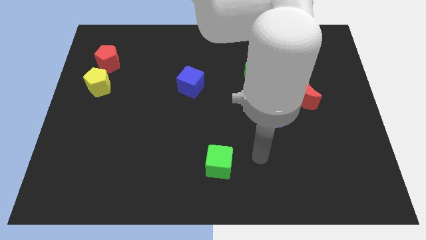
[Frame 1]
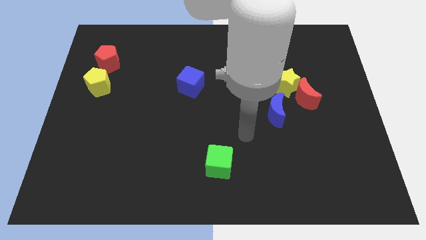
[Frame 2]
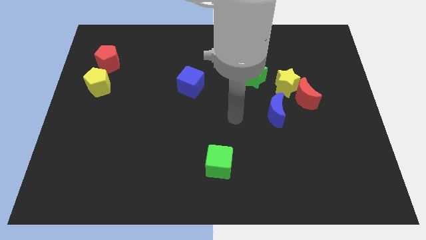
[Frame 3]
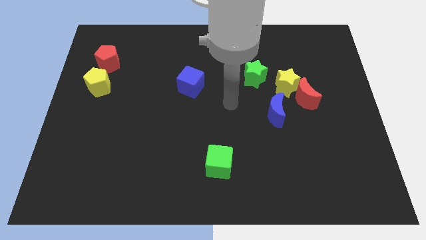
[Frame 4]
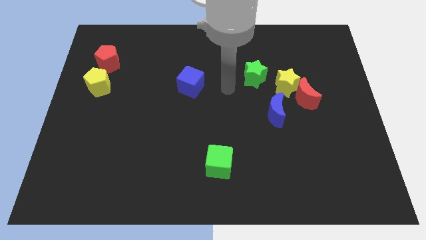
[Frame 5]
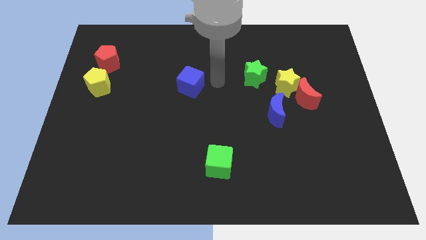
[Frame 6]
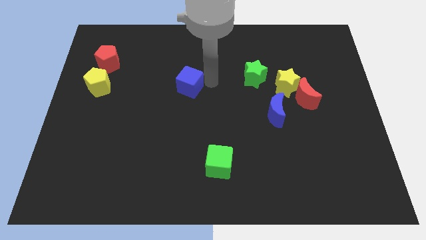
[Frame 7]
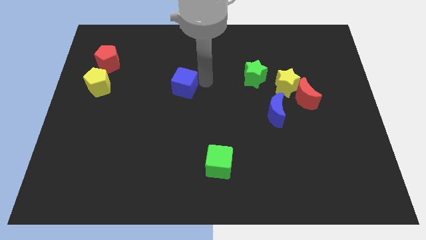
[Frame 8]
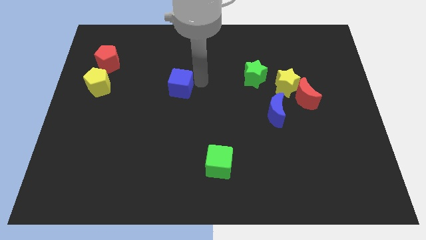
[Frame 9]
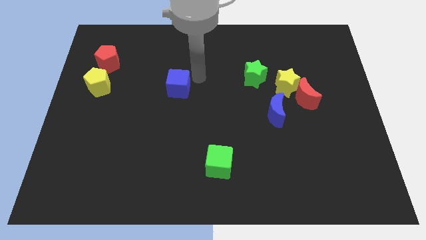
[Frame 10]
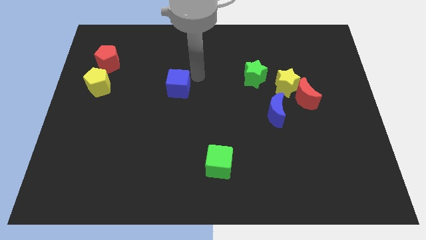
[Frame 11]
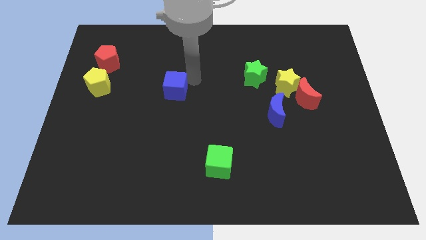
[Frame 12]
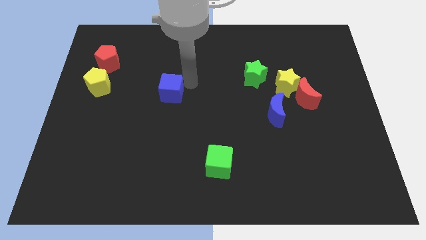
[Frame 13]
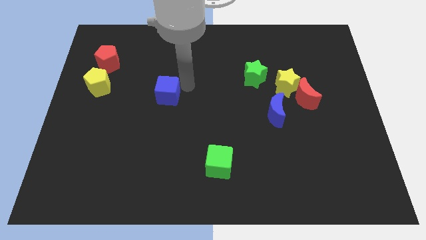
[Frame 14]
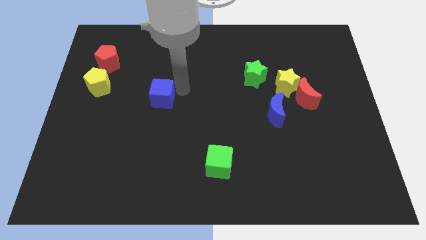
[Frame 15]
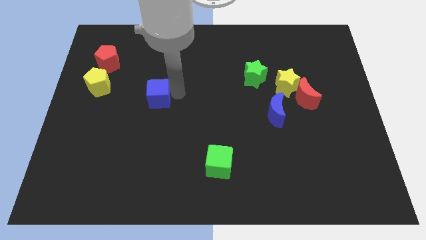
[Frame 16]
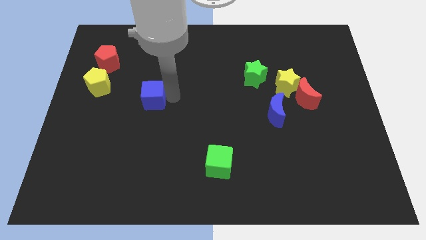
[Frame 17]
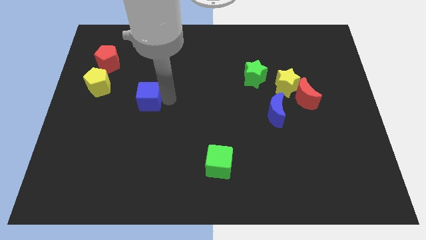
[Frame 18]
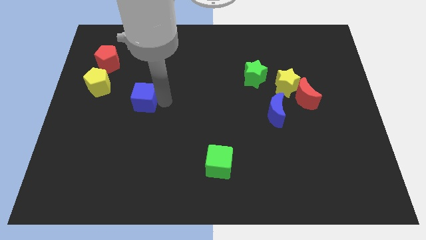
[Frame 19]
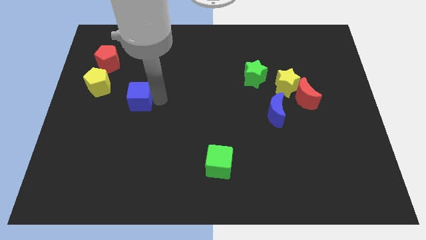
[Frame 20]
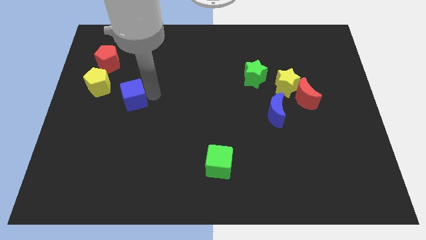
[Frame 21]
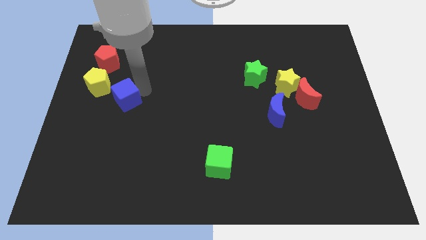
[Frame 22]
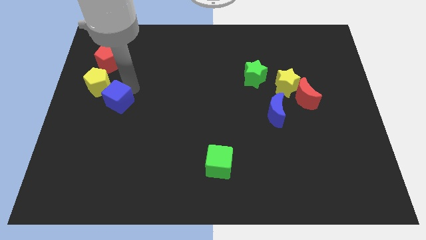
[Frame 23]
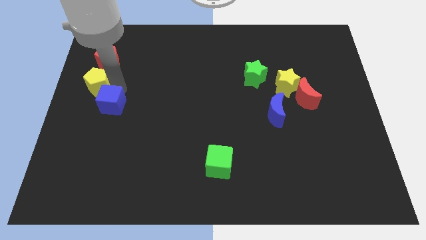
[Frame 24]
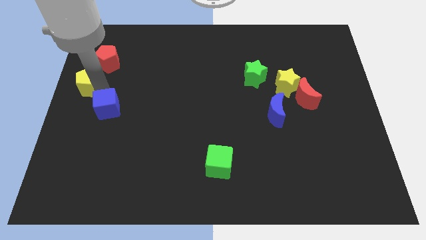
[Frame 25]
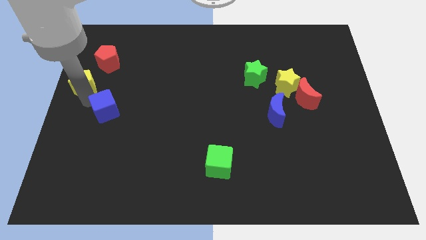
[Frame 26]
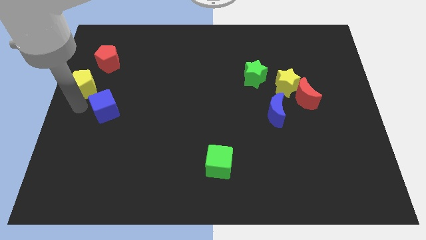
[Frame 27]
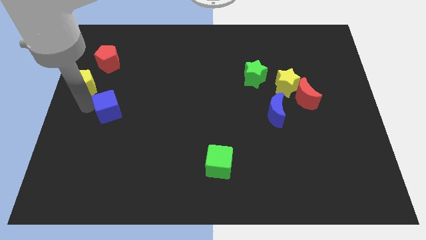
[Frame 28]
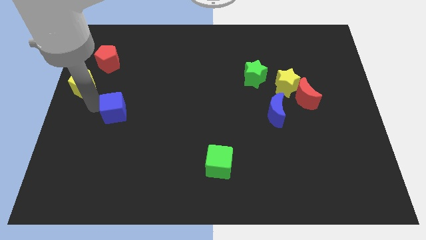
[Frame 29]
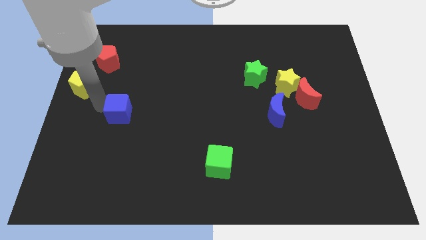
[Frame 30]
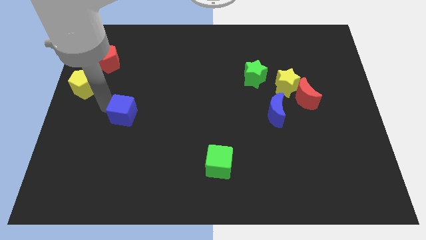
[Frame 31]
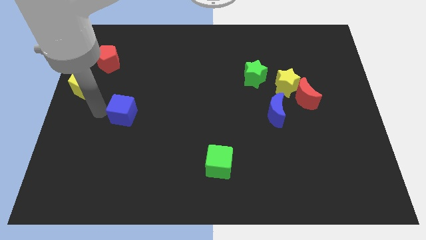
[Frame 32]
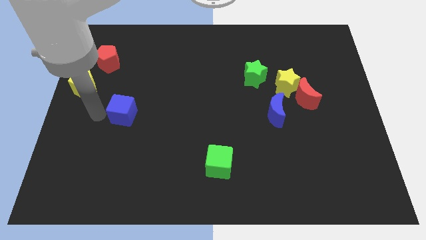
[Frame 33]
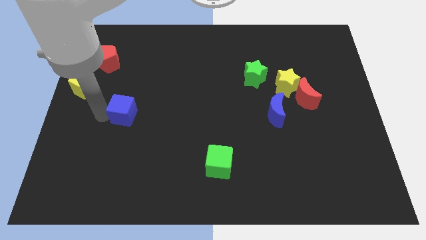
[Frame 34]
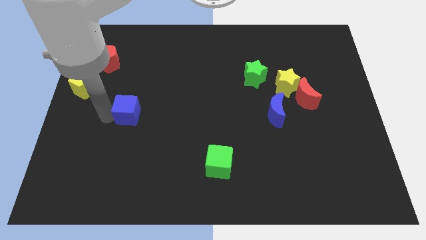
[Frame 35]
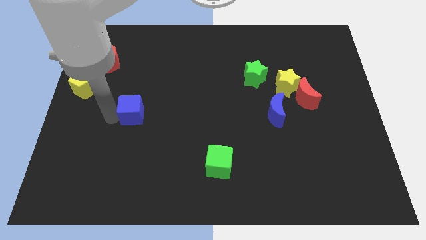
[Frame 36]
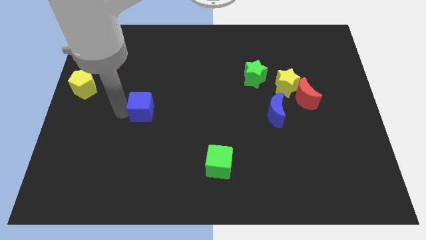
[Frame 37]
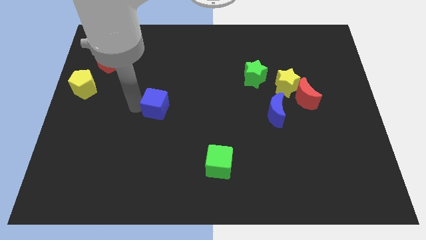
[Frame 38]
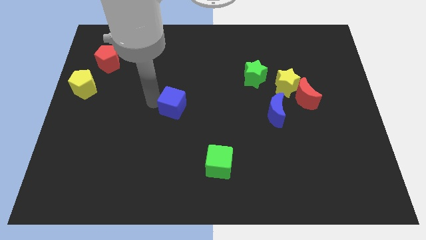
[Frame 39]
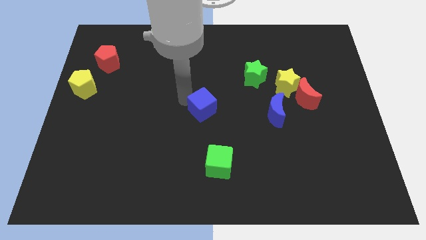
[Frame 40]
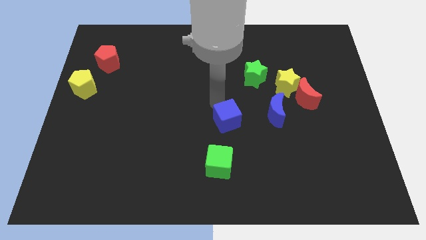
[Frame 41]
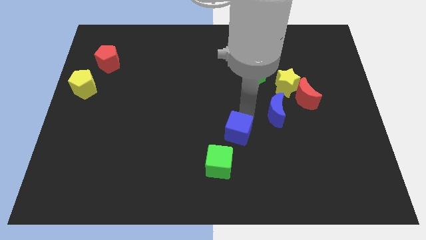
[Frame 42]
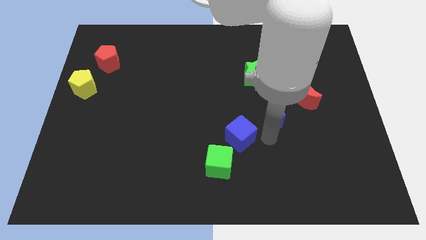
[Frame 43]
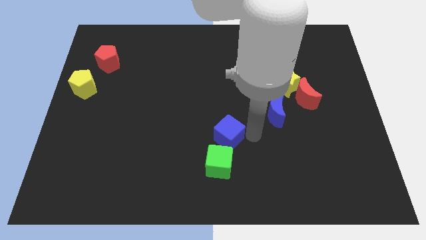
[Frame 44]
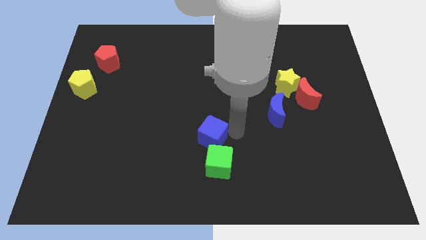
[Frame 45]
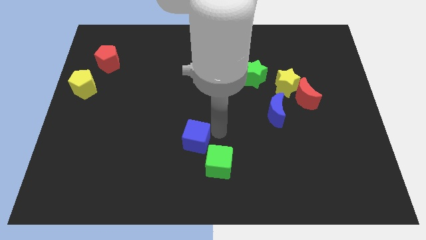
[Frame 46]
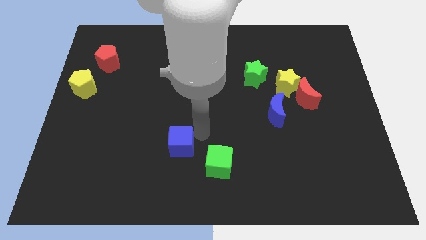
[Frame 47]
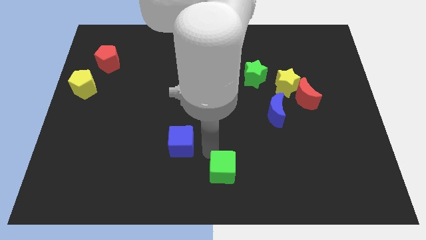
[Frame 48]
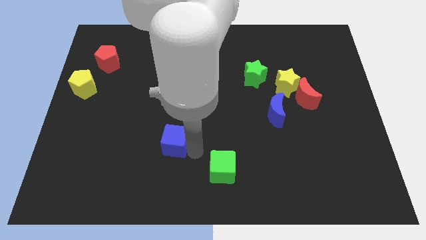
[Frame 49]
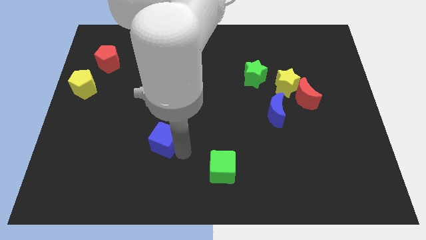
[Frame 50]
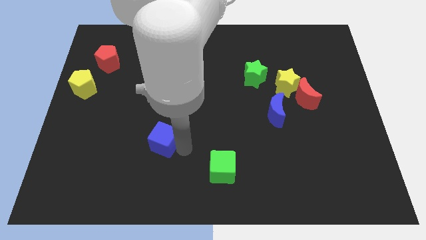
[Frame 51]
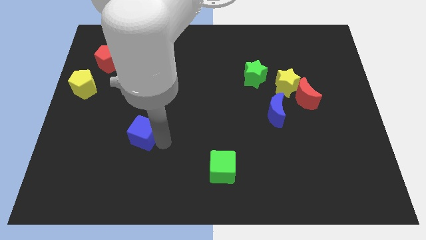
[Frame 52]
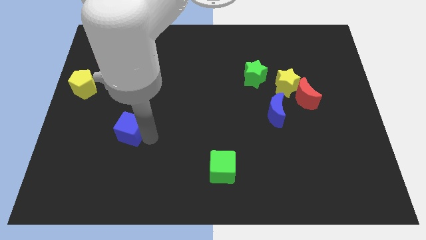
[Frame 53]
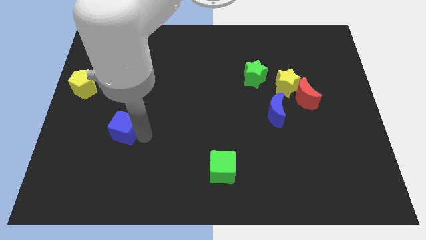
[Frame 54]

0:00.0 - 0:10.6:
slide the blue cube downwards and then left

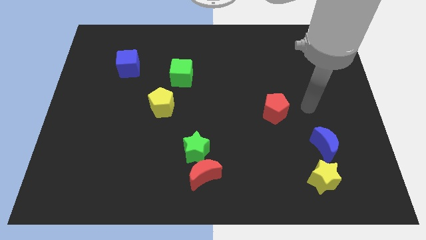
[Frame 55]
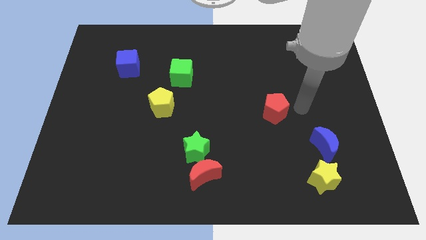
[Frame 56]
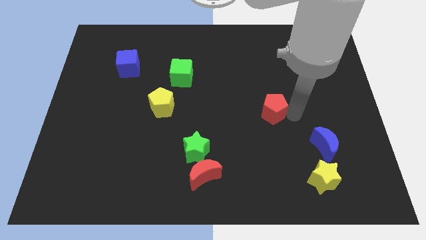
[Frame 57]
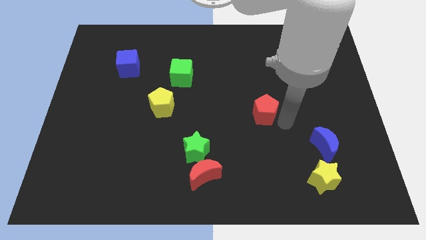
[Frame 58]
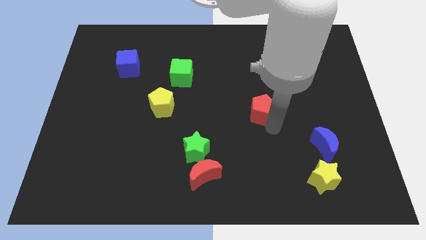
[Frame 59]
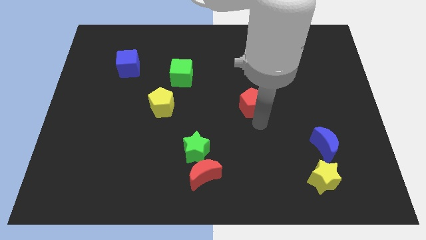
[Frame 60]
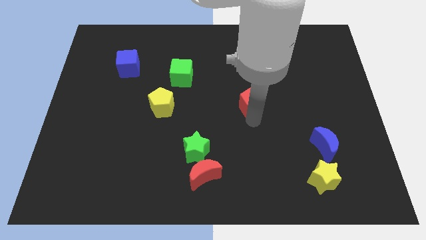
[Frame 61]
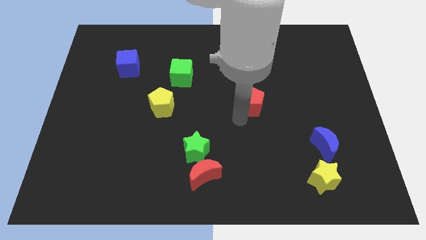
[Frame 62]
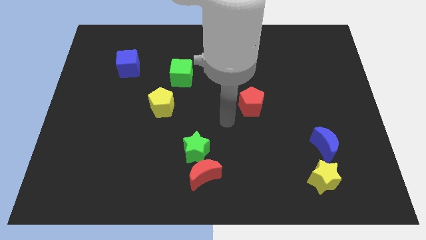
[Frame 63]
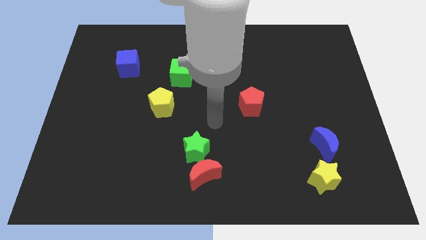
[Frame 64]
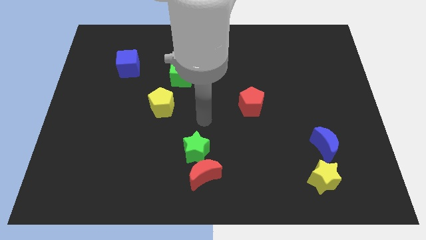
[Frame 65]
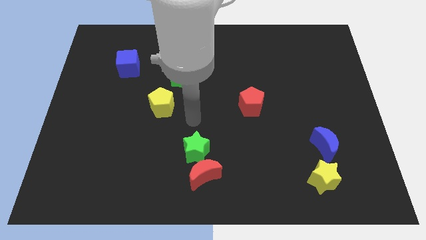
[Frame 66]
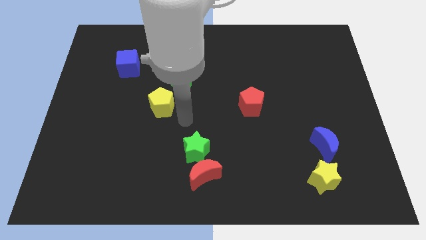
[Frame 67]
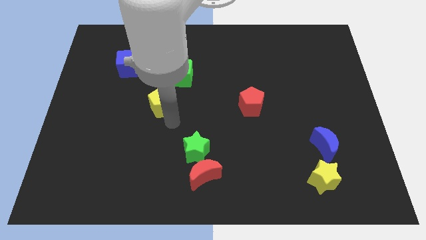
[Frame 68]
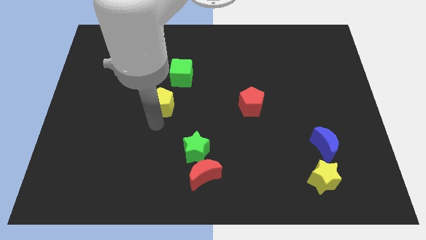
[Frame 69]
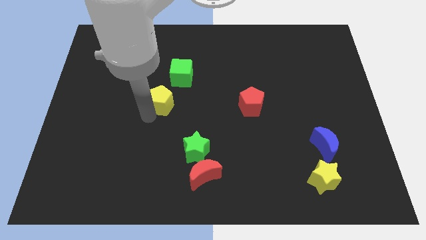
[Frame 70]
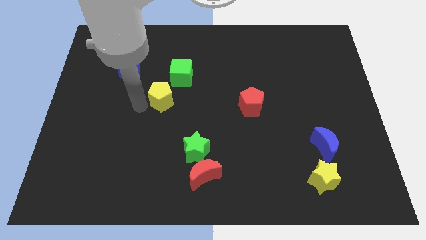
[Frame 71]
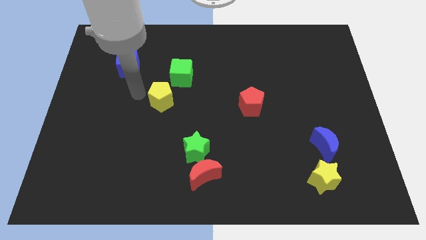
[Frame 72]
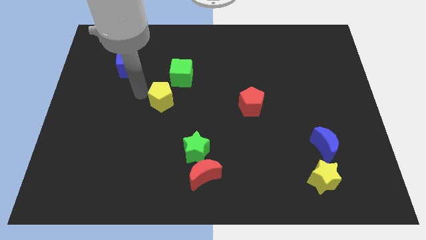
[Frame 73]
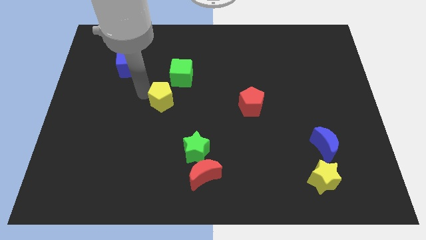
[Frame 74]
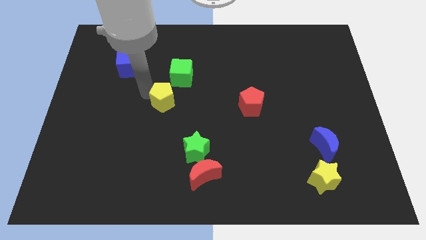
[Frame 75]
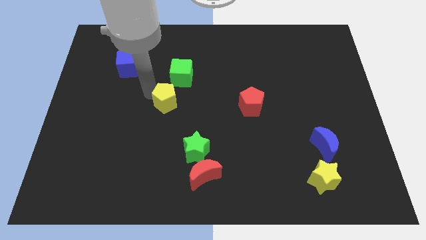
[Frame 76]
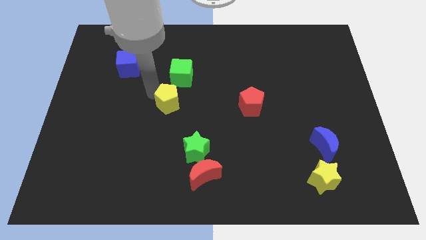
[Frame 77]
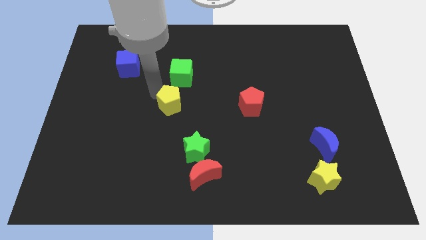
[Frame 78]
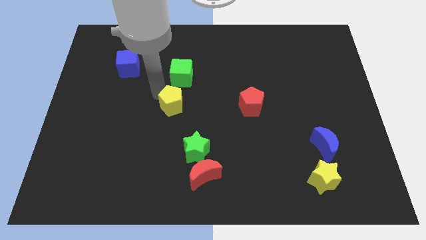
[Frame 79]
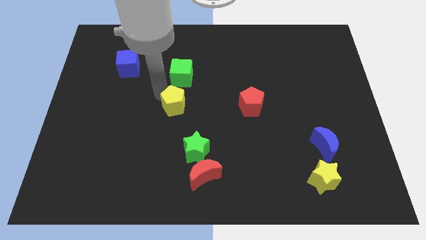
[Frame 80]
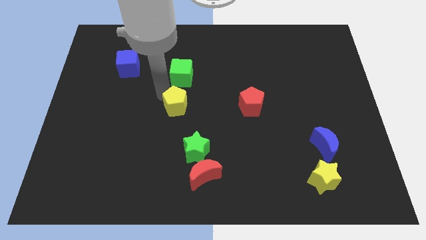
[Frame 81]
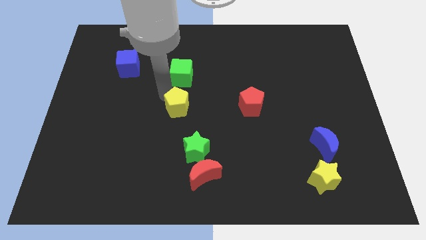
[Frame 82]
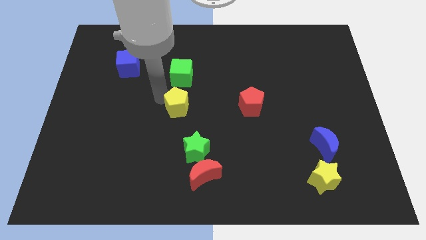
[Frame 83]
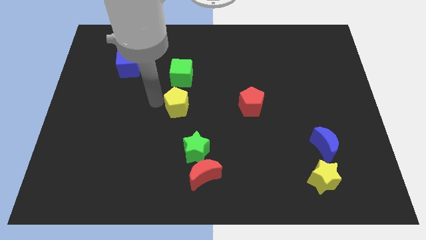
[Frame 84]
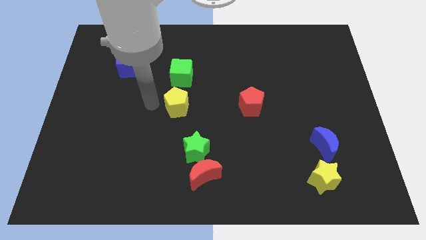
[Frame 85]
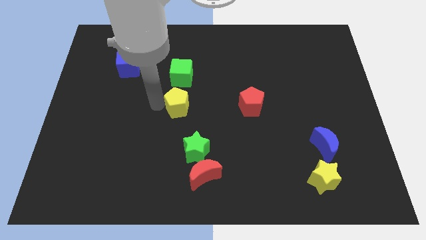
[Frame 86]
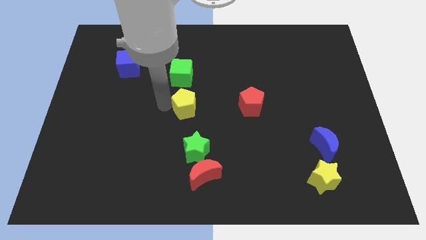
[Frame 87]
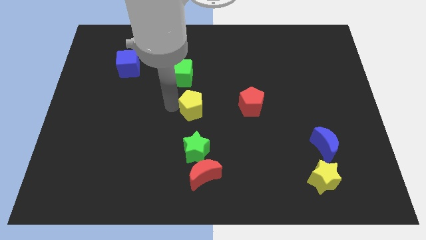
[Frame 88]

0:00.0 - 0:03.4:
slightly move the yellow pentagon right
